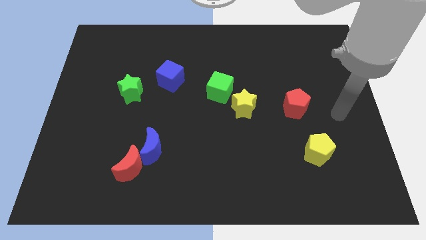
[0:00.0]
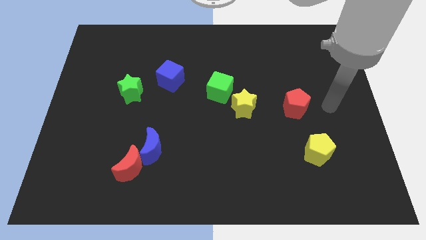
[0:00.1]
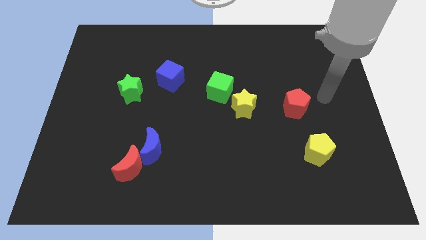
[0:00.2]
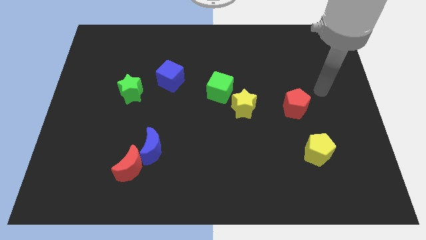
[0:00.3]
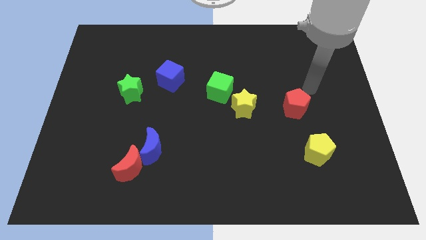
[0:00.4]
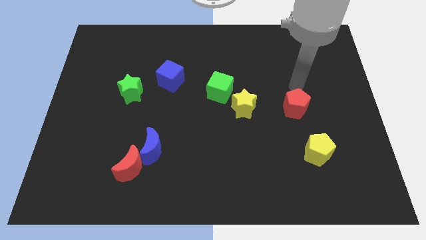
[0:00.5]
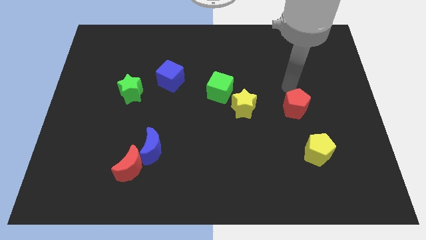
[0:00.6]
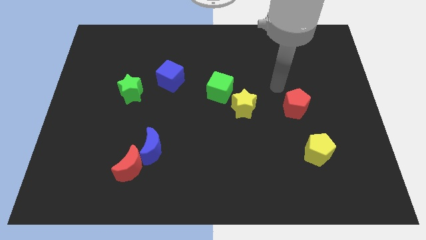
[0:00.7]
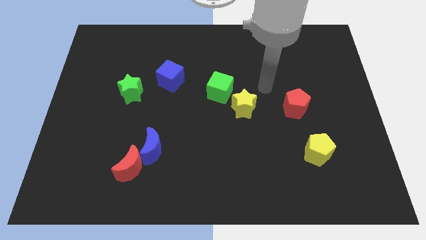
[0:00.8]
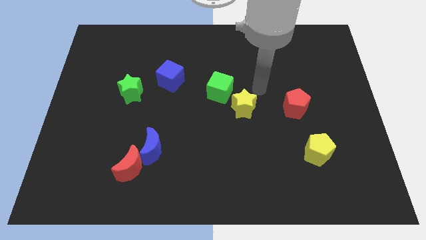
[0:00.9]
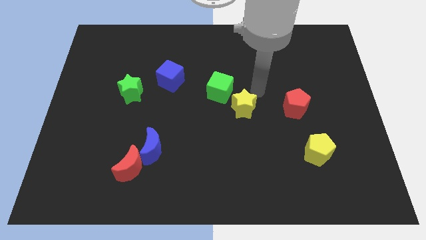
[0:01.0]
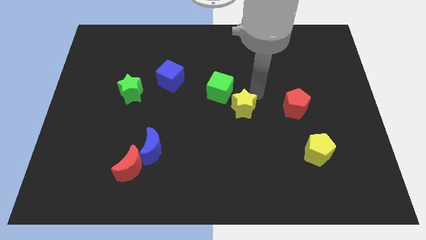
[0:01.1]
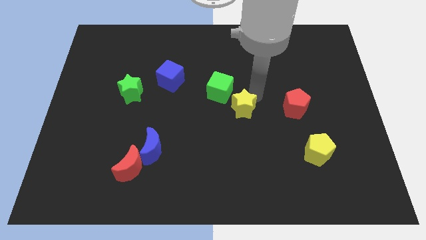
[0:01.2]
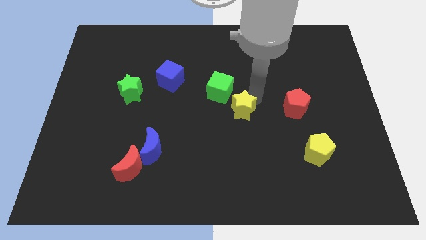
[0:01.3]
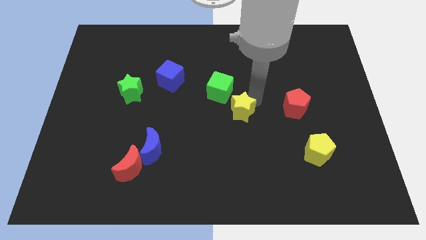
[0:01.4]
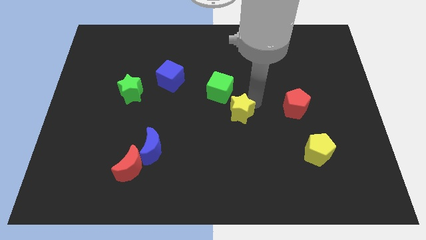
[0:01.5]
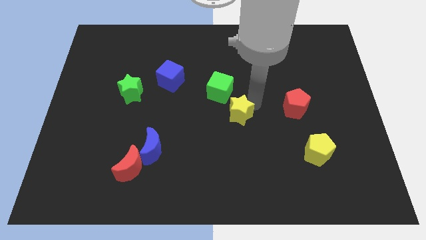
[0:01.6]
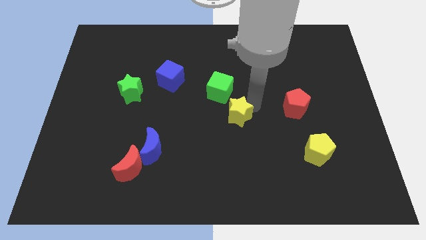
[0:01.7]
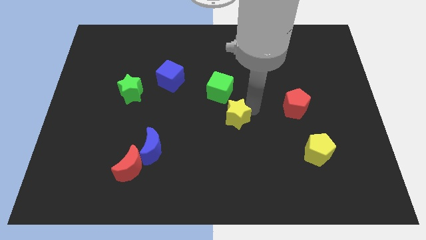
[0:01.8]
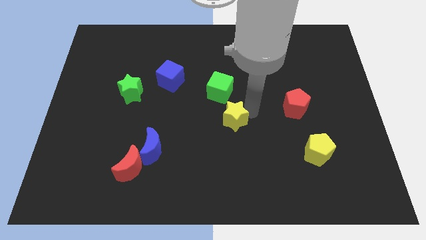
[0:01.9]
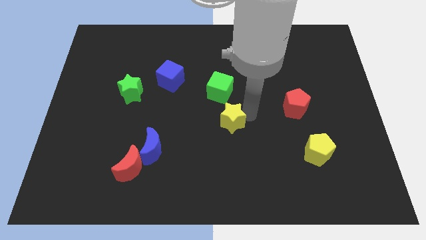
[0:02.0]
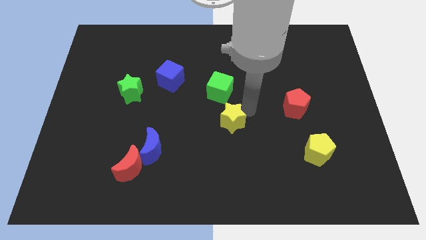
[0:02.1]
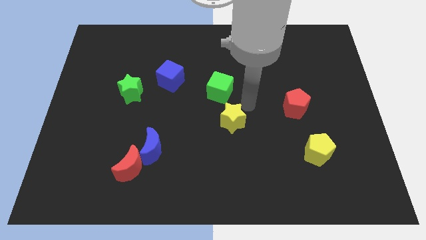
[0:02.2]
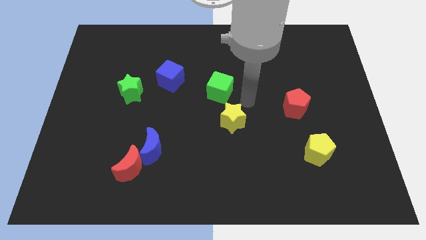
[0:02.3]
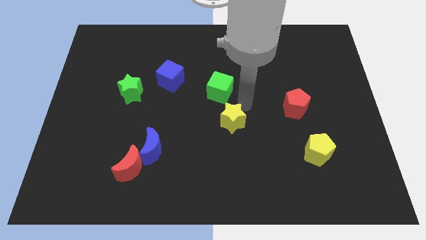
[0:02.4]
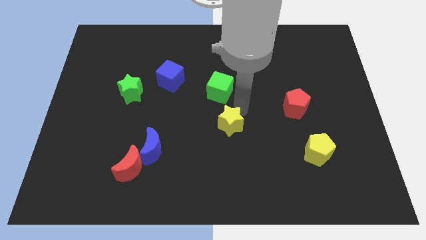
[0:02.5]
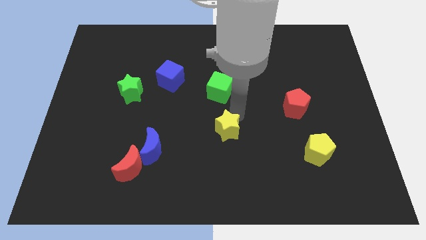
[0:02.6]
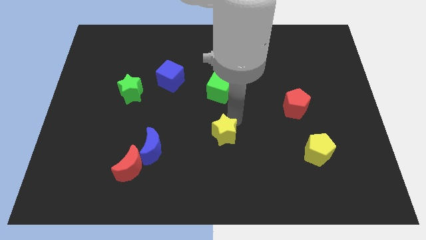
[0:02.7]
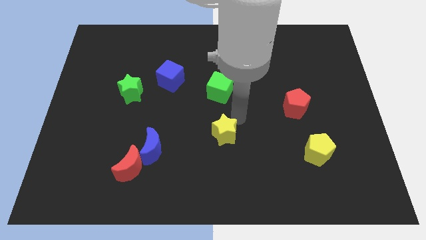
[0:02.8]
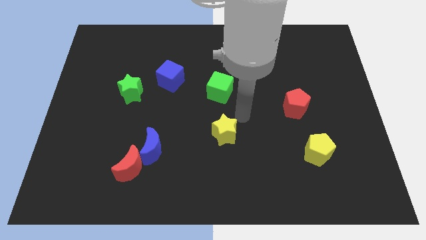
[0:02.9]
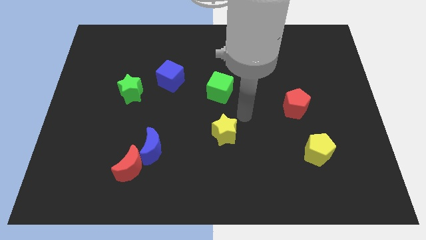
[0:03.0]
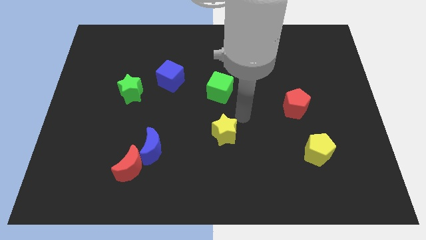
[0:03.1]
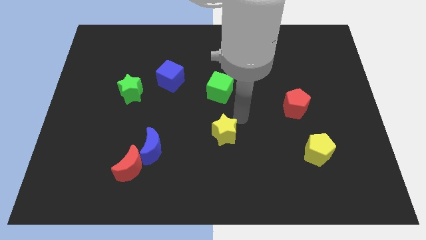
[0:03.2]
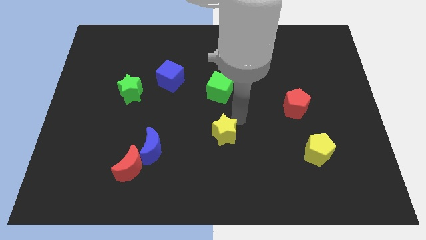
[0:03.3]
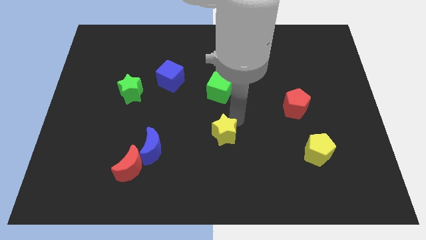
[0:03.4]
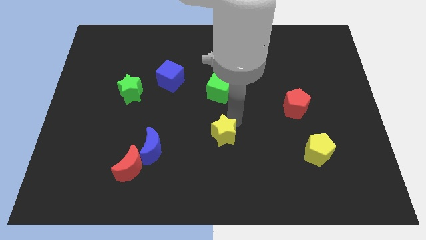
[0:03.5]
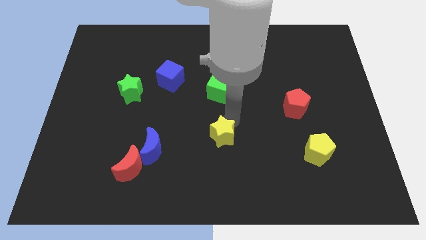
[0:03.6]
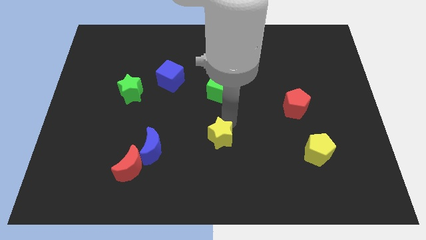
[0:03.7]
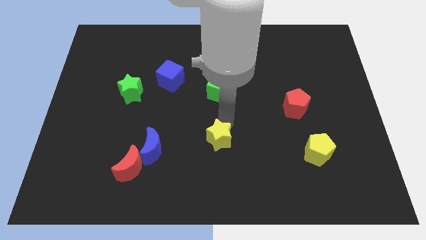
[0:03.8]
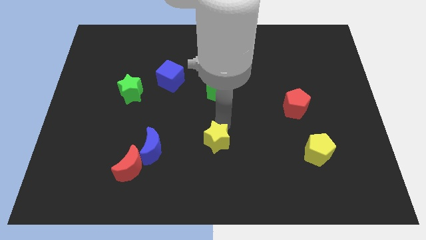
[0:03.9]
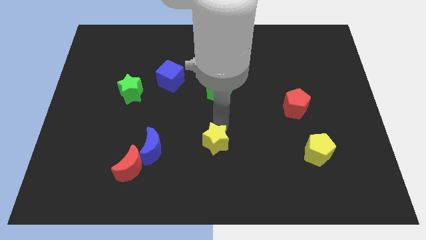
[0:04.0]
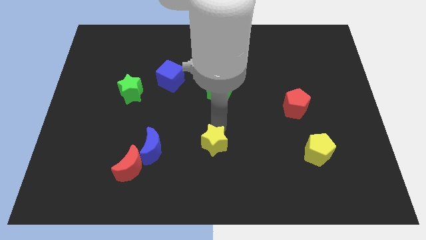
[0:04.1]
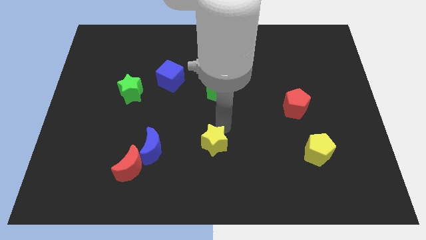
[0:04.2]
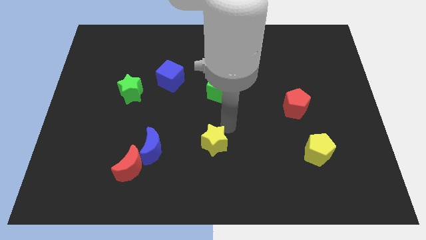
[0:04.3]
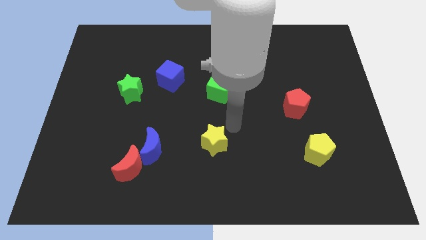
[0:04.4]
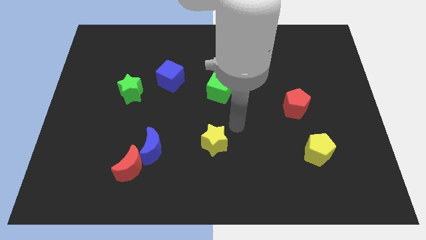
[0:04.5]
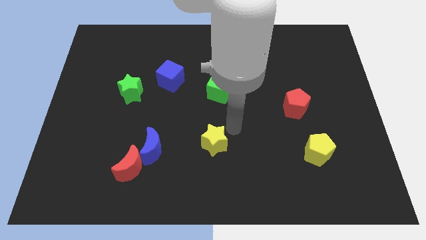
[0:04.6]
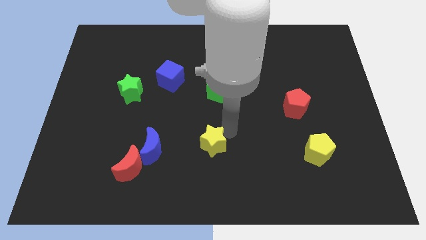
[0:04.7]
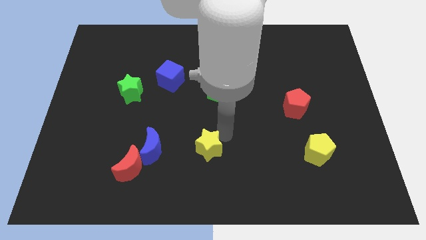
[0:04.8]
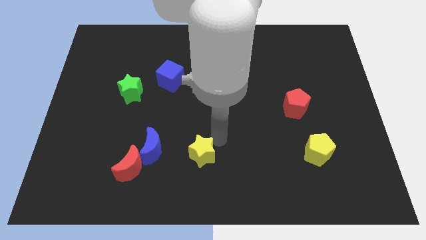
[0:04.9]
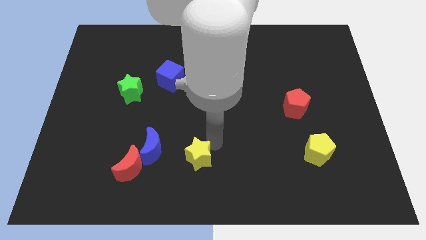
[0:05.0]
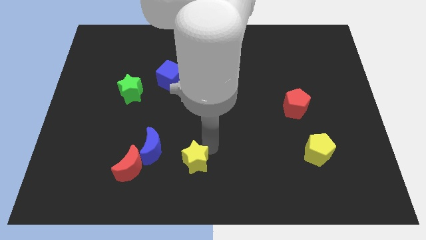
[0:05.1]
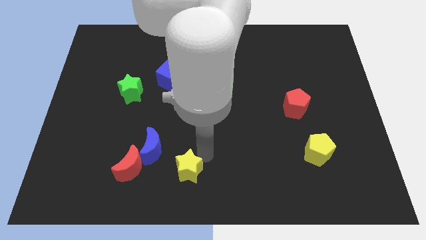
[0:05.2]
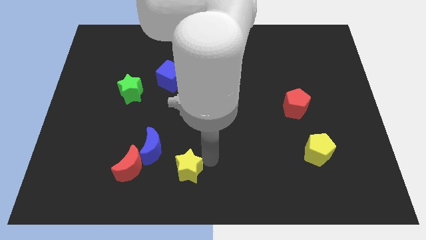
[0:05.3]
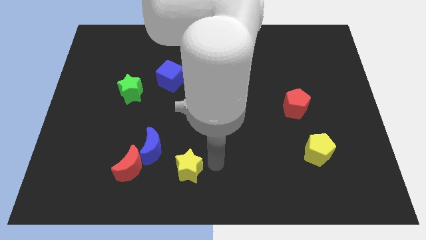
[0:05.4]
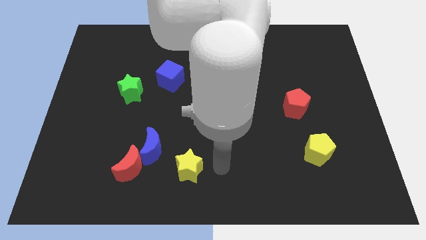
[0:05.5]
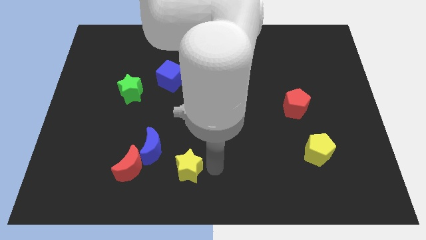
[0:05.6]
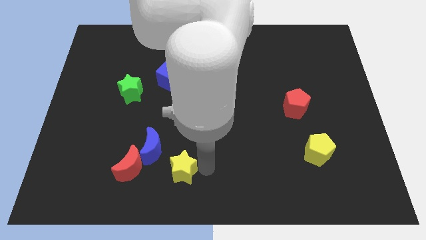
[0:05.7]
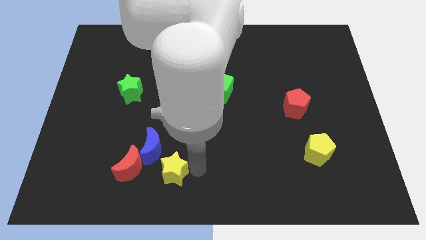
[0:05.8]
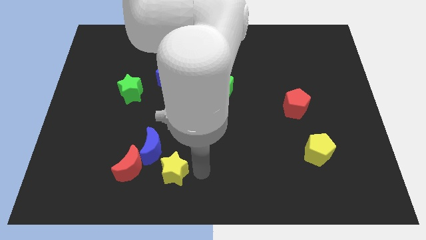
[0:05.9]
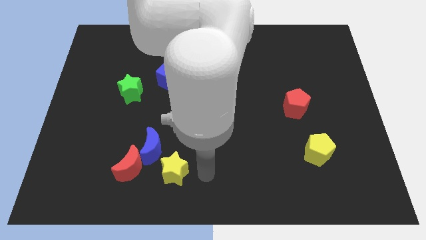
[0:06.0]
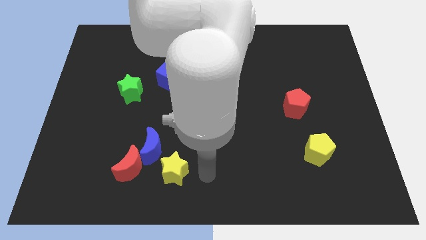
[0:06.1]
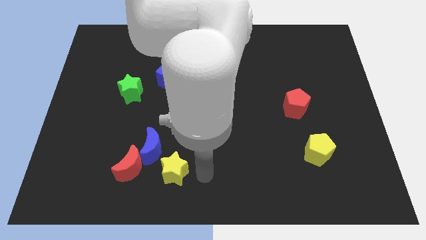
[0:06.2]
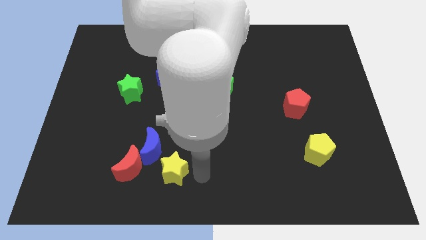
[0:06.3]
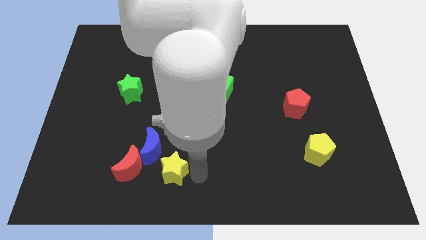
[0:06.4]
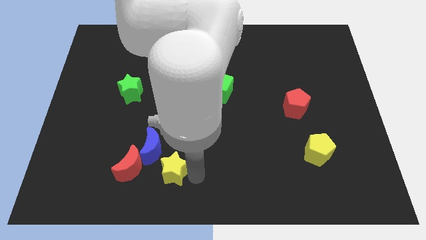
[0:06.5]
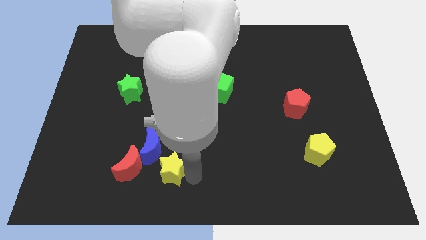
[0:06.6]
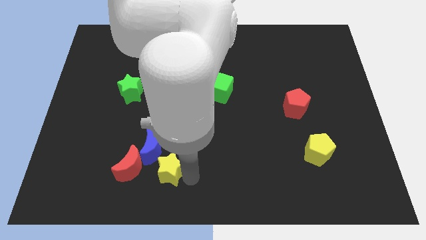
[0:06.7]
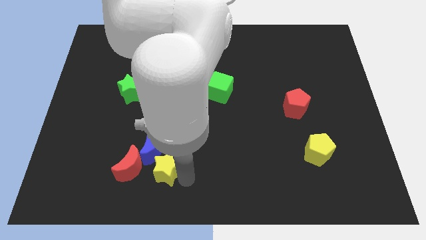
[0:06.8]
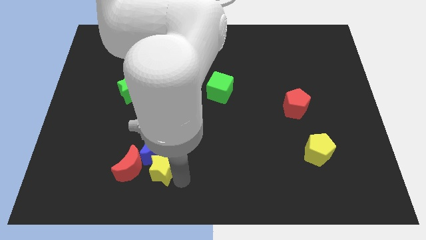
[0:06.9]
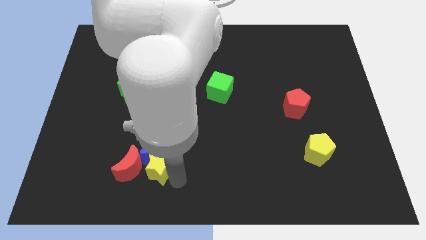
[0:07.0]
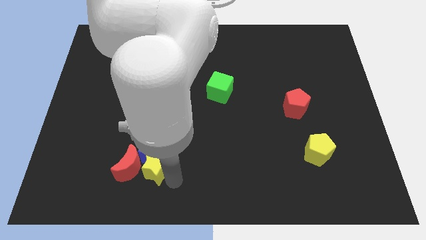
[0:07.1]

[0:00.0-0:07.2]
push the yellow star towards the red moon
